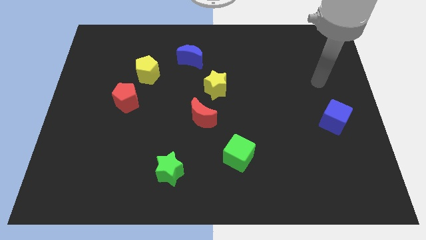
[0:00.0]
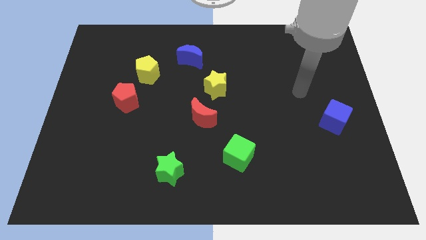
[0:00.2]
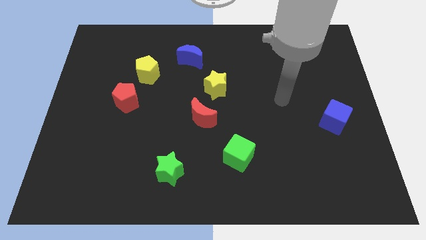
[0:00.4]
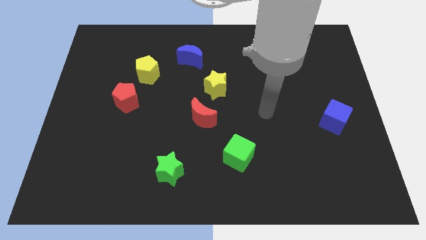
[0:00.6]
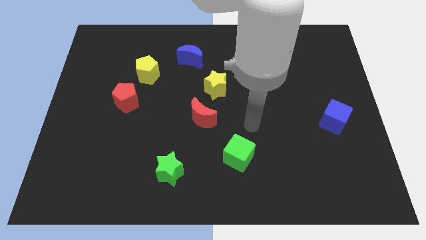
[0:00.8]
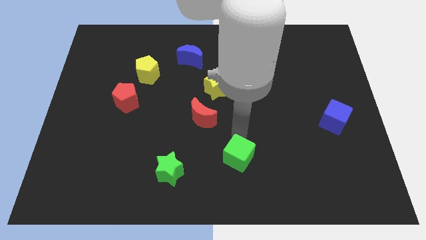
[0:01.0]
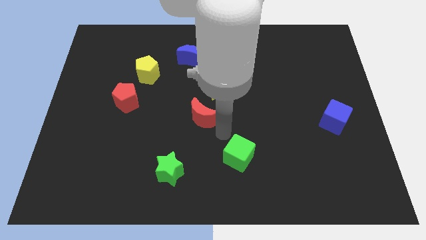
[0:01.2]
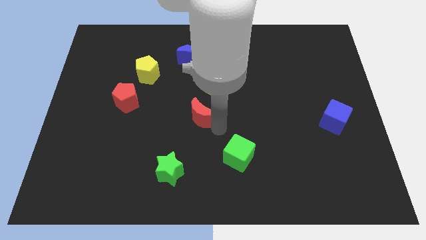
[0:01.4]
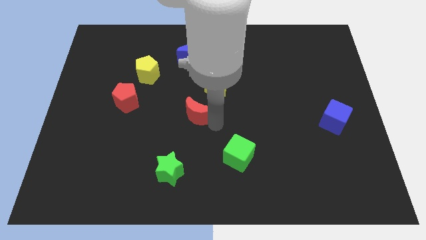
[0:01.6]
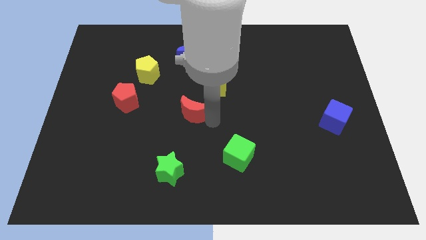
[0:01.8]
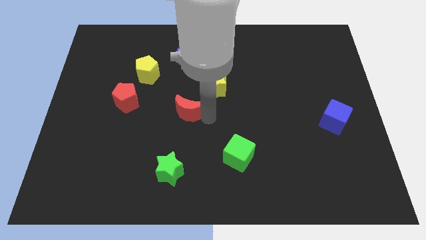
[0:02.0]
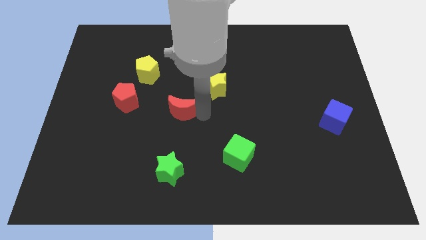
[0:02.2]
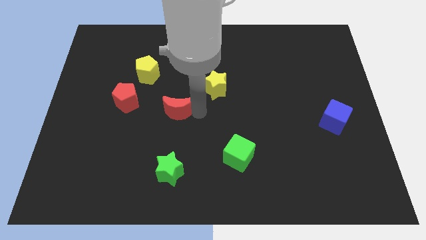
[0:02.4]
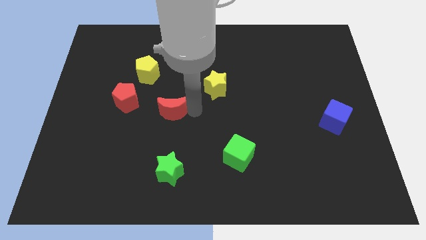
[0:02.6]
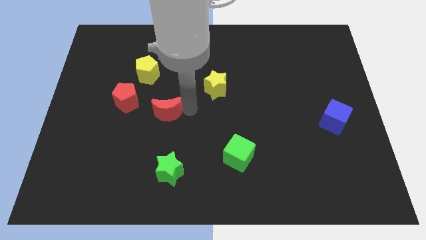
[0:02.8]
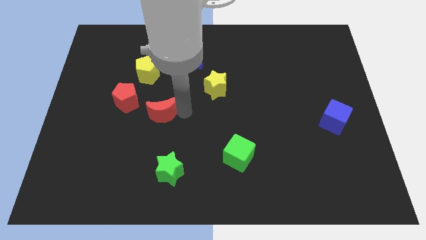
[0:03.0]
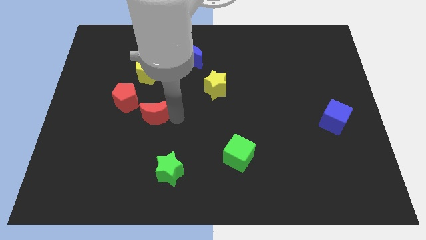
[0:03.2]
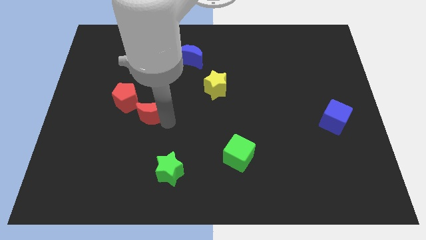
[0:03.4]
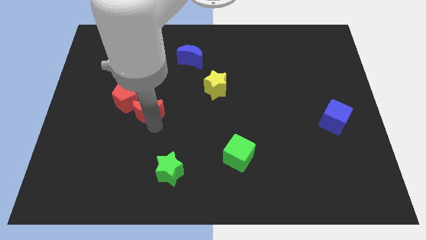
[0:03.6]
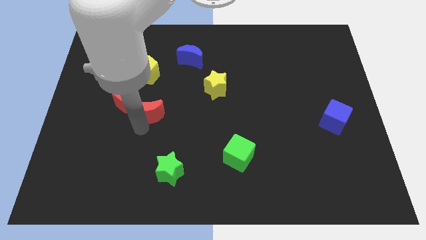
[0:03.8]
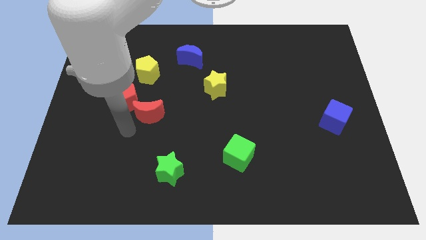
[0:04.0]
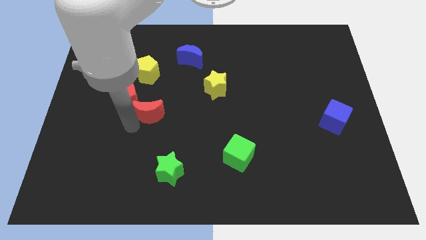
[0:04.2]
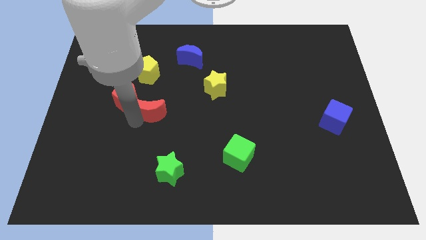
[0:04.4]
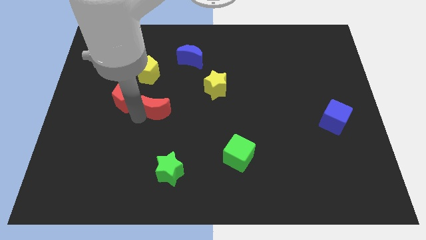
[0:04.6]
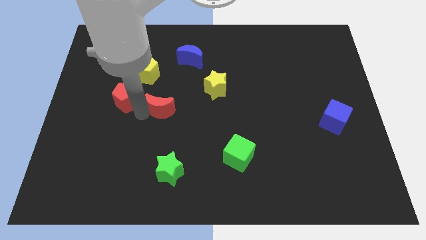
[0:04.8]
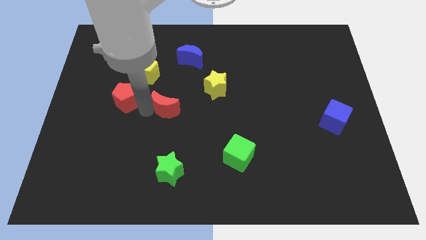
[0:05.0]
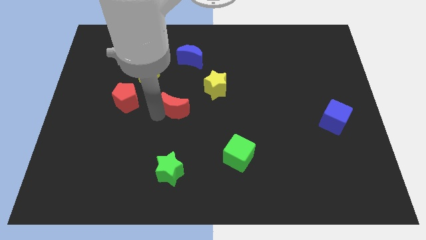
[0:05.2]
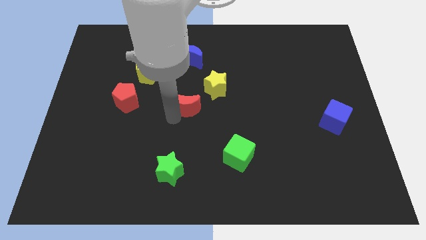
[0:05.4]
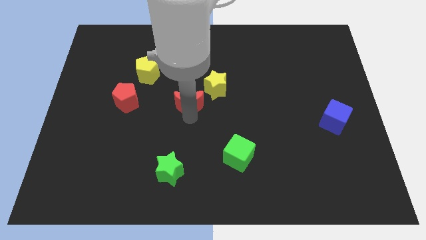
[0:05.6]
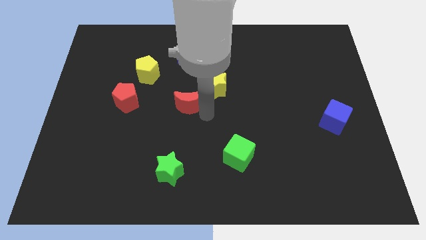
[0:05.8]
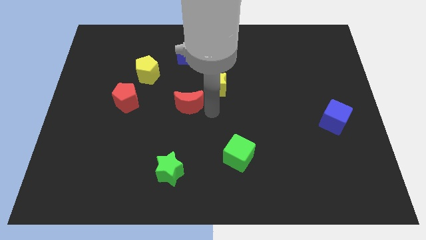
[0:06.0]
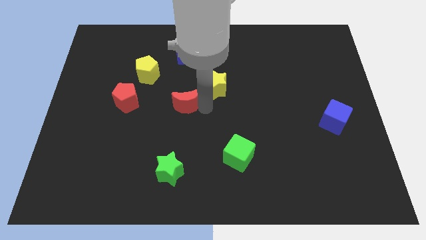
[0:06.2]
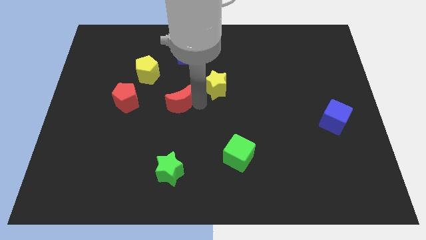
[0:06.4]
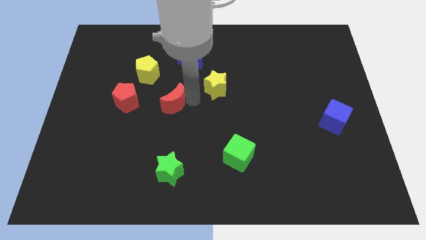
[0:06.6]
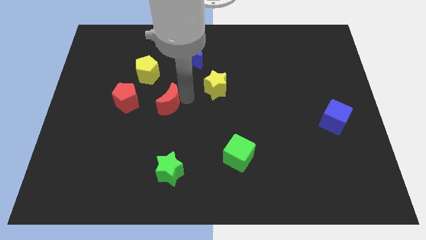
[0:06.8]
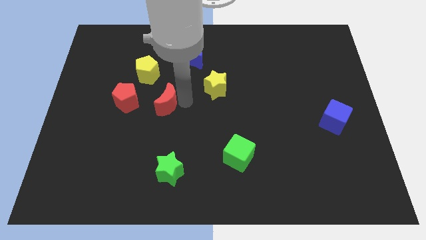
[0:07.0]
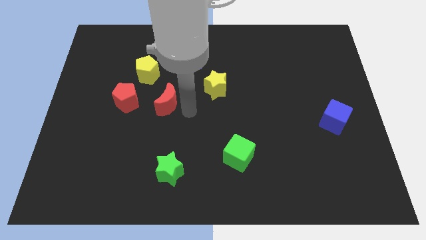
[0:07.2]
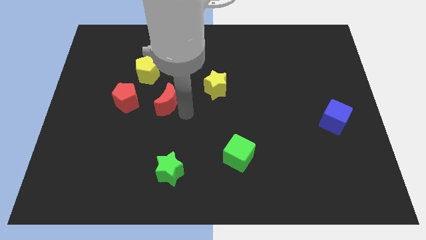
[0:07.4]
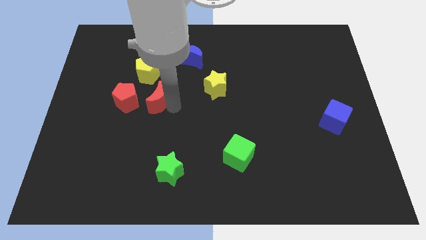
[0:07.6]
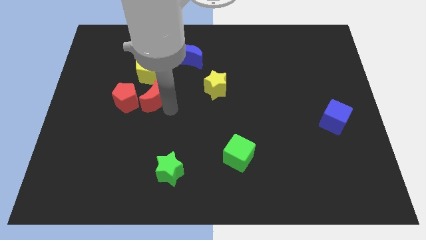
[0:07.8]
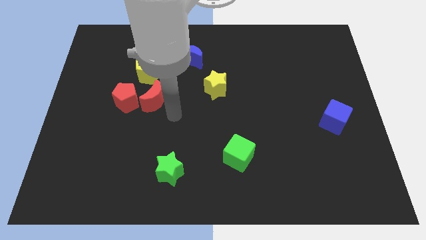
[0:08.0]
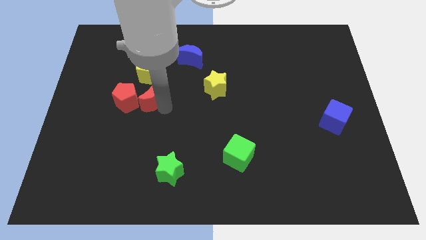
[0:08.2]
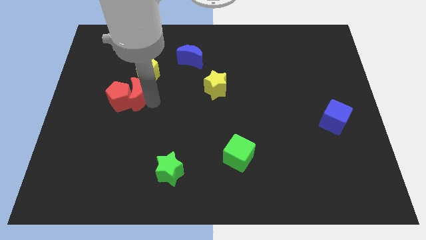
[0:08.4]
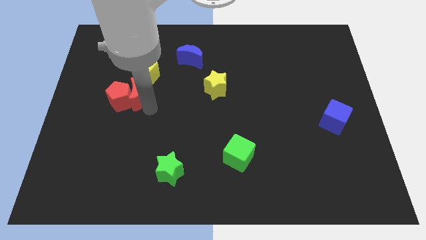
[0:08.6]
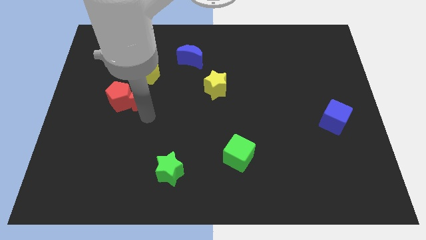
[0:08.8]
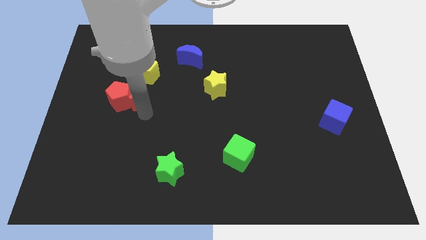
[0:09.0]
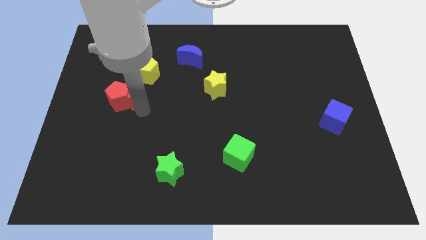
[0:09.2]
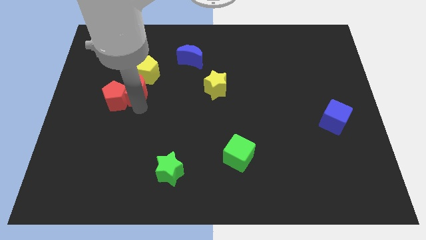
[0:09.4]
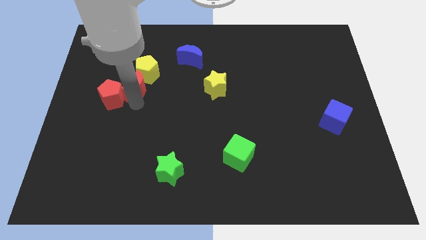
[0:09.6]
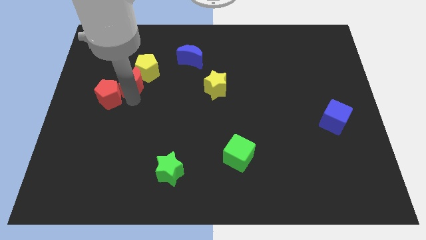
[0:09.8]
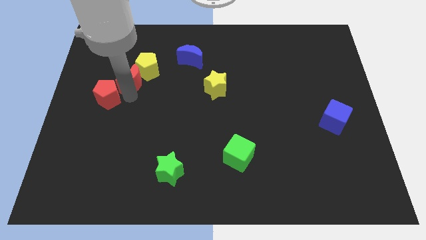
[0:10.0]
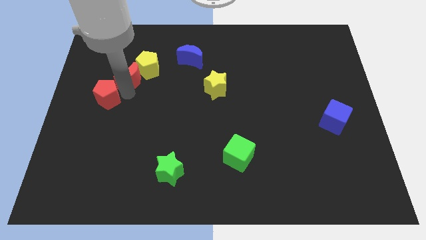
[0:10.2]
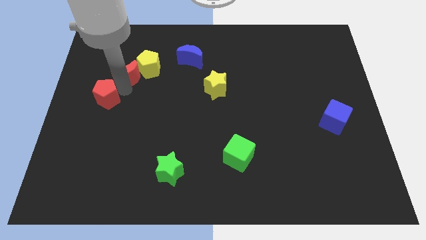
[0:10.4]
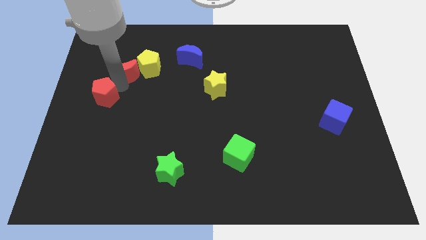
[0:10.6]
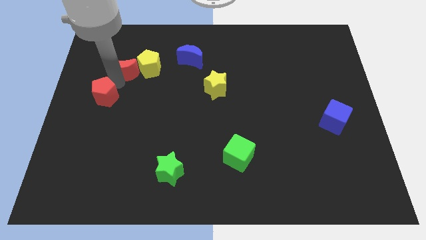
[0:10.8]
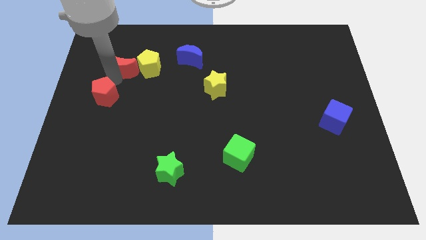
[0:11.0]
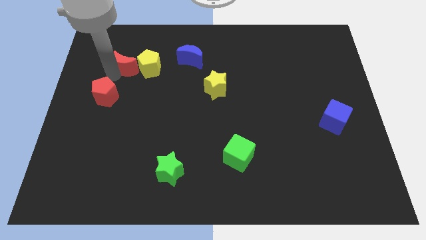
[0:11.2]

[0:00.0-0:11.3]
put the red moon to the top left of the yellow pentagon
